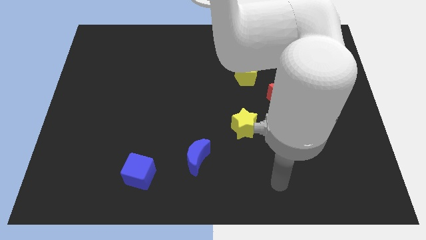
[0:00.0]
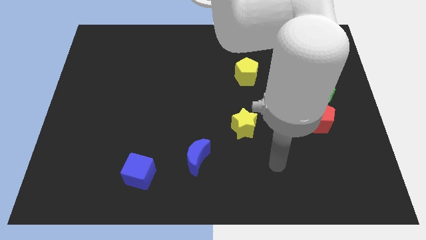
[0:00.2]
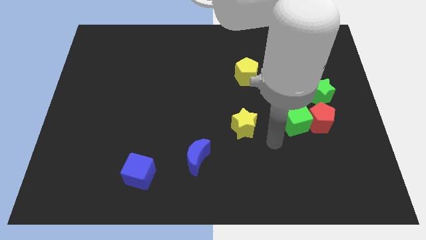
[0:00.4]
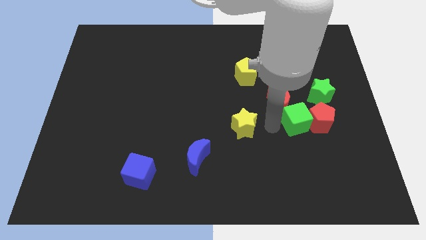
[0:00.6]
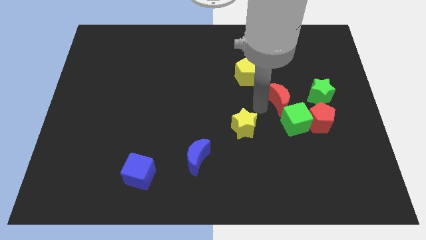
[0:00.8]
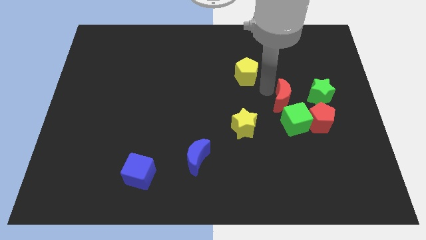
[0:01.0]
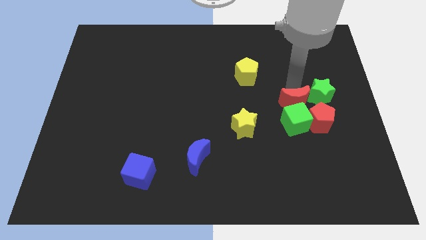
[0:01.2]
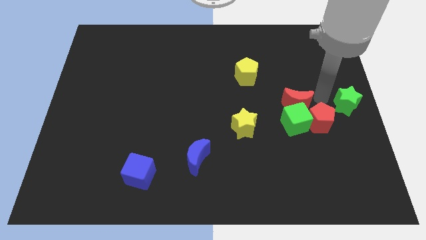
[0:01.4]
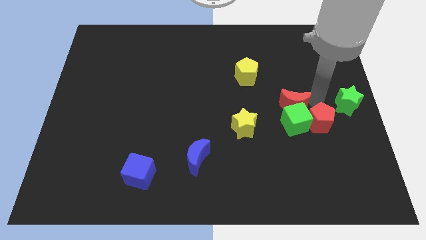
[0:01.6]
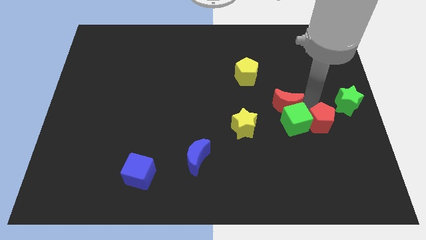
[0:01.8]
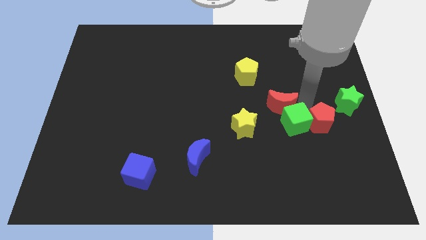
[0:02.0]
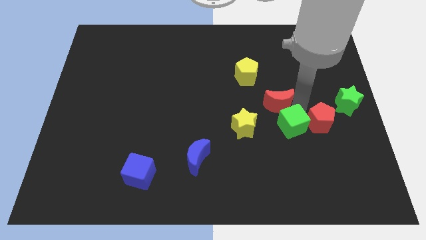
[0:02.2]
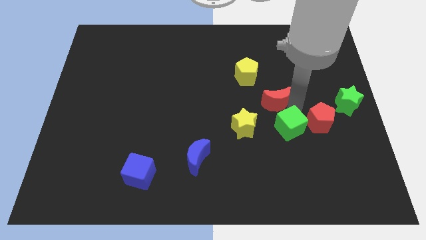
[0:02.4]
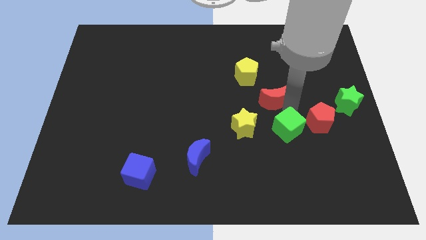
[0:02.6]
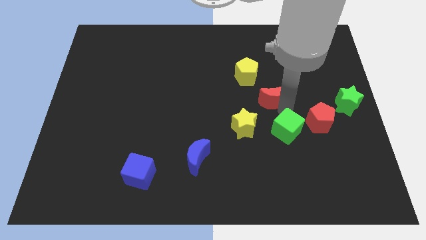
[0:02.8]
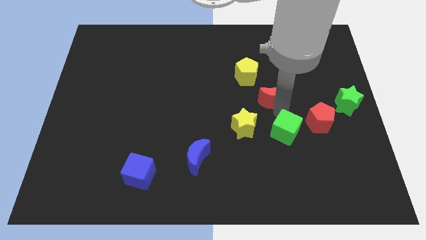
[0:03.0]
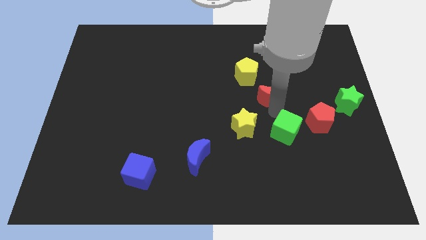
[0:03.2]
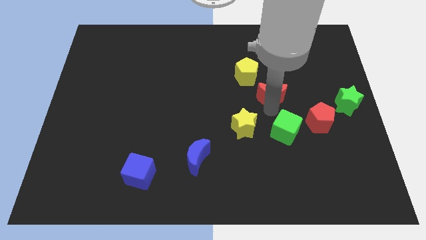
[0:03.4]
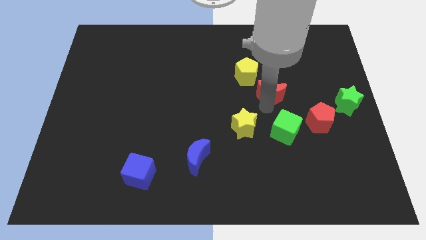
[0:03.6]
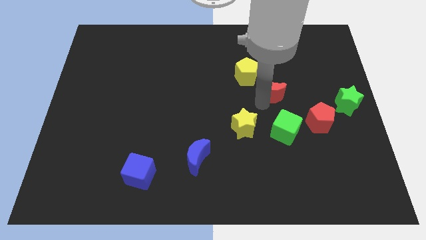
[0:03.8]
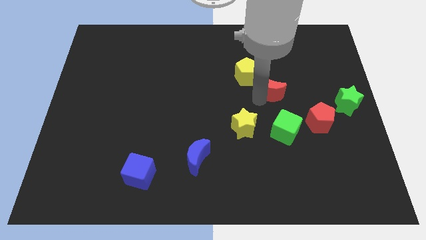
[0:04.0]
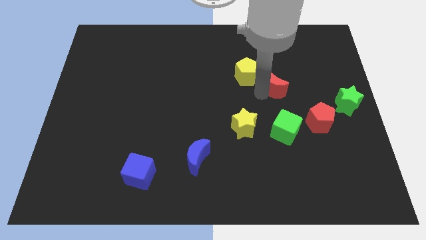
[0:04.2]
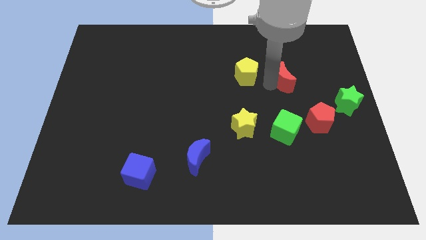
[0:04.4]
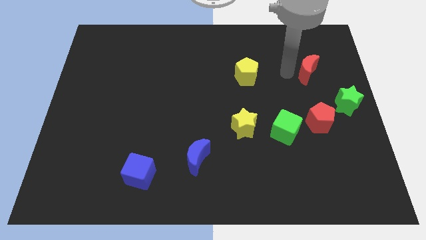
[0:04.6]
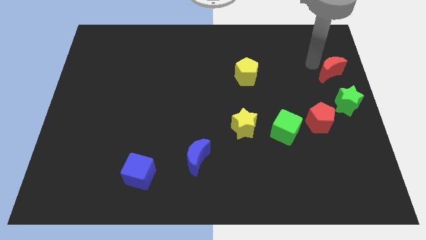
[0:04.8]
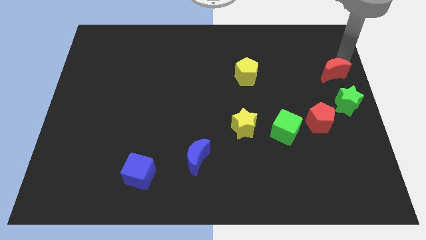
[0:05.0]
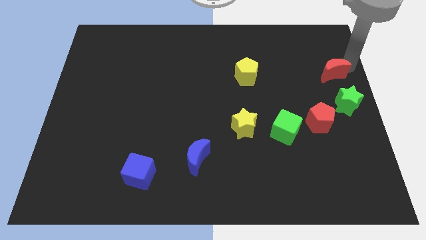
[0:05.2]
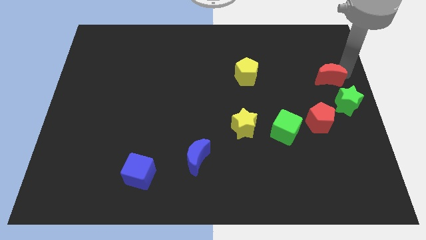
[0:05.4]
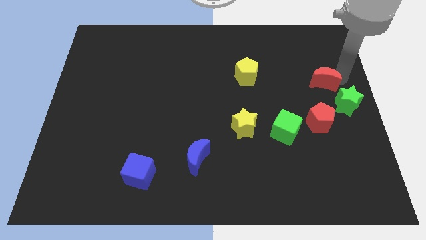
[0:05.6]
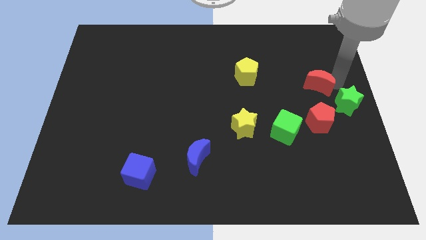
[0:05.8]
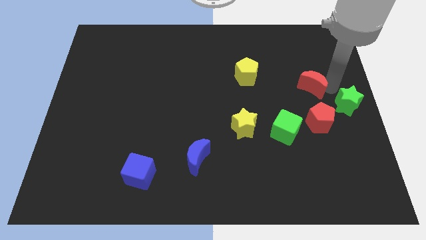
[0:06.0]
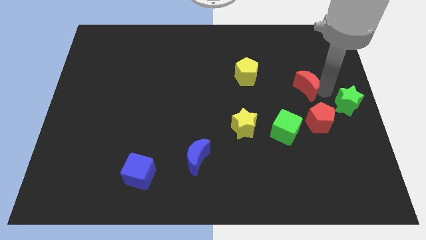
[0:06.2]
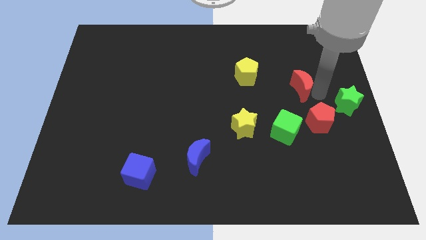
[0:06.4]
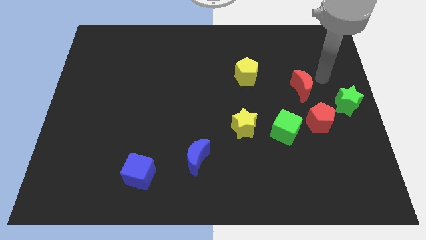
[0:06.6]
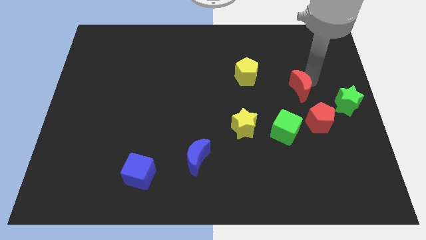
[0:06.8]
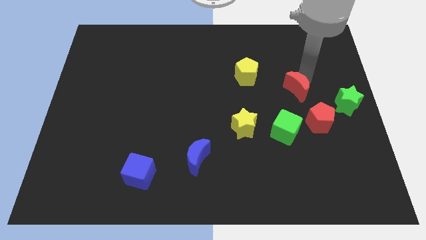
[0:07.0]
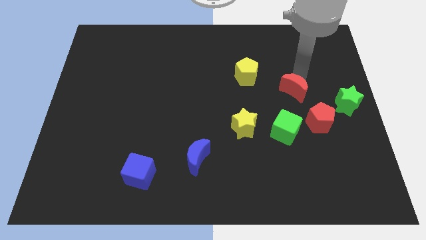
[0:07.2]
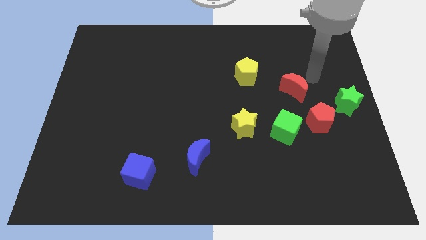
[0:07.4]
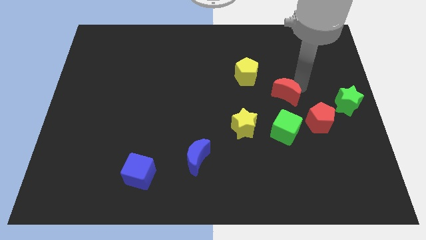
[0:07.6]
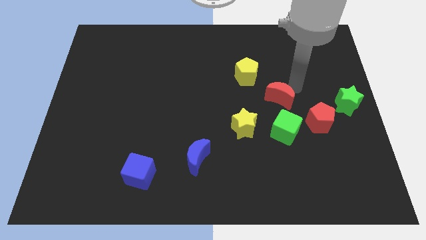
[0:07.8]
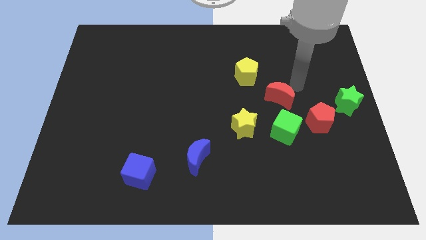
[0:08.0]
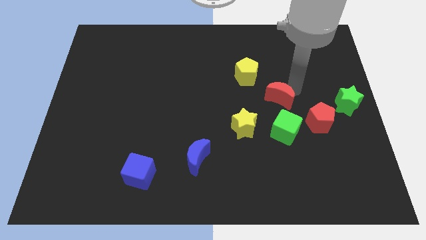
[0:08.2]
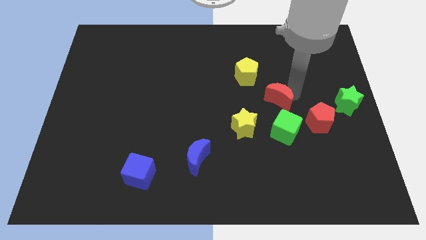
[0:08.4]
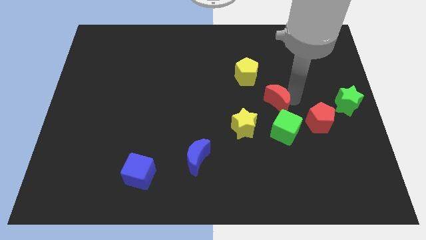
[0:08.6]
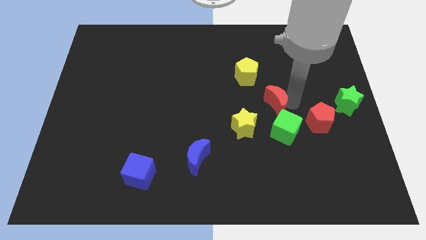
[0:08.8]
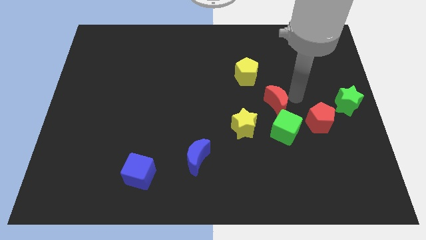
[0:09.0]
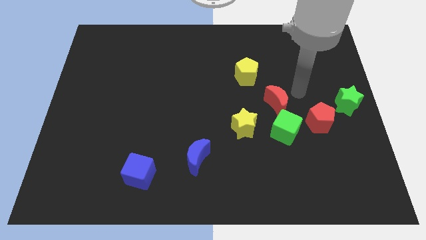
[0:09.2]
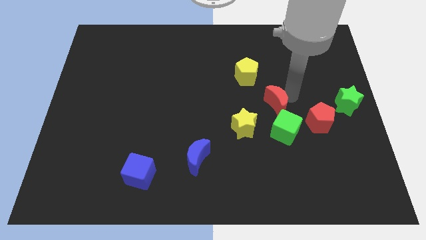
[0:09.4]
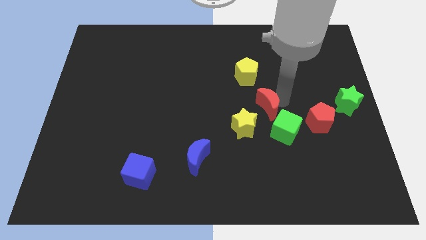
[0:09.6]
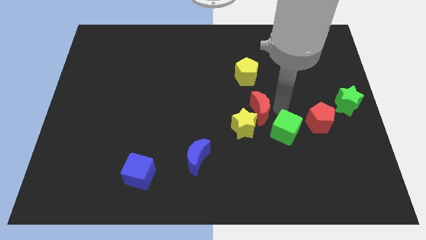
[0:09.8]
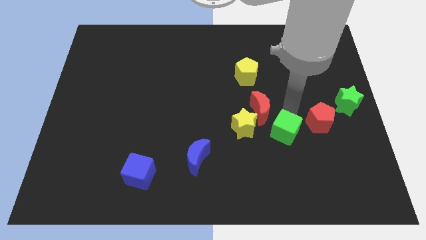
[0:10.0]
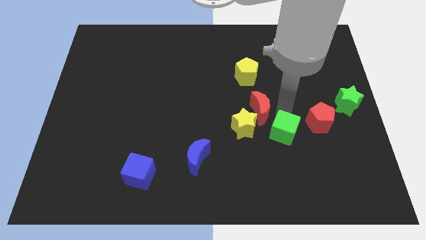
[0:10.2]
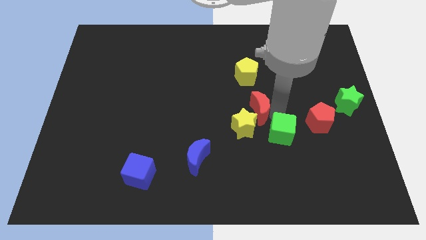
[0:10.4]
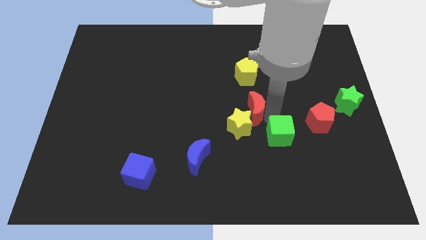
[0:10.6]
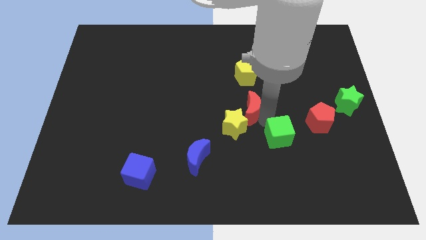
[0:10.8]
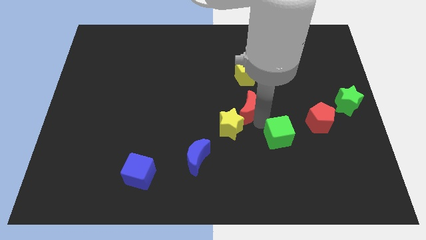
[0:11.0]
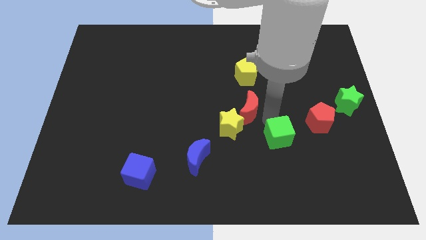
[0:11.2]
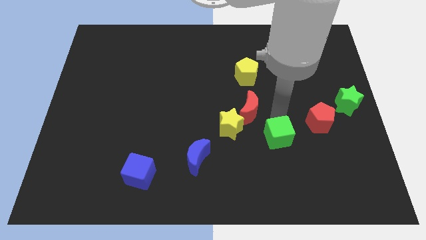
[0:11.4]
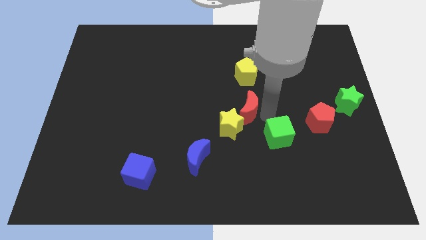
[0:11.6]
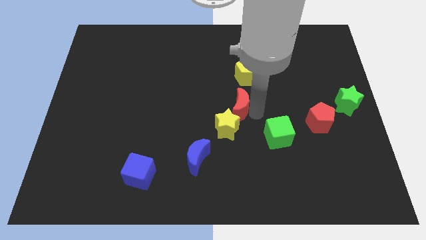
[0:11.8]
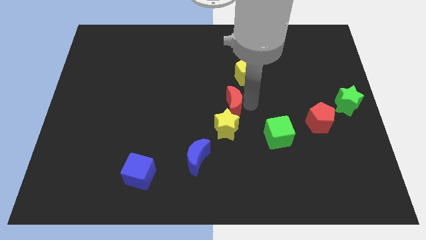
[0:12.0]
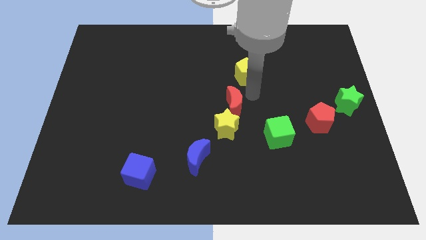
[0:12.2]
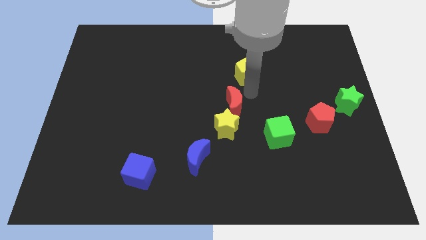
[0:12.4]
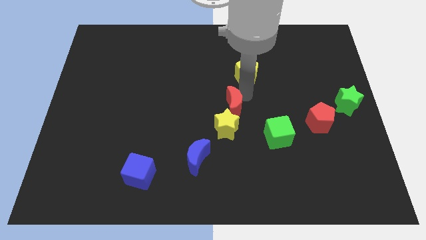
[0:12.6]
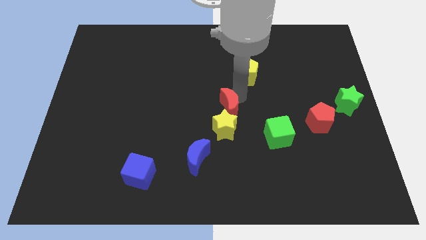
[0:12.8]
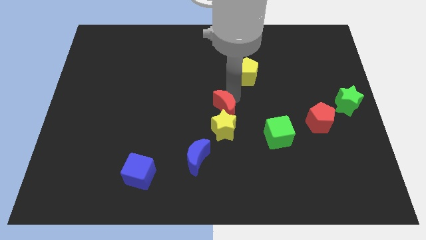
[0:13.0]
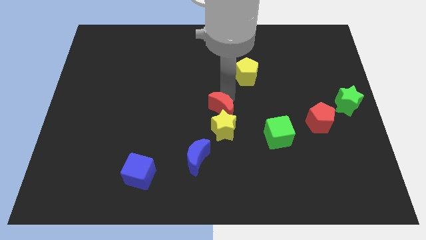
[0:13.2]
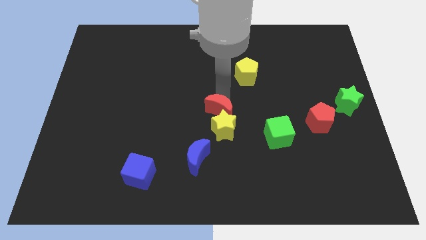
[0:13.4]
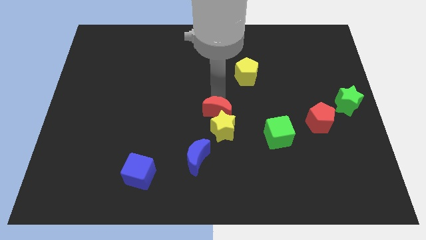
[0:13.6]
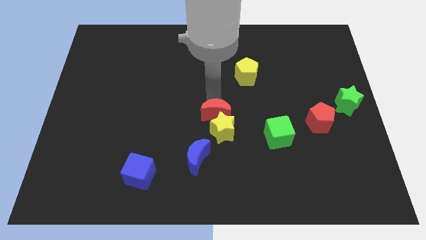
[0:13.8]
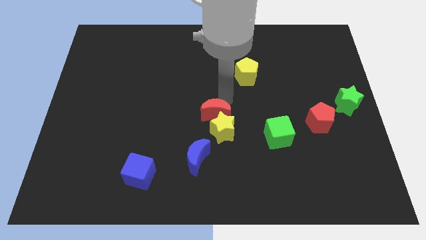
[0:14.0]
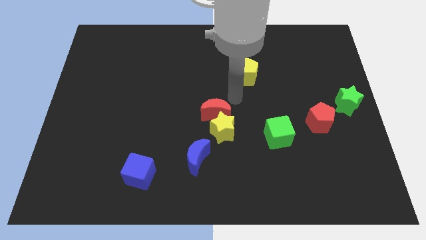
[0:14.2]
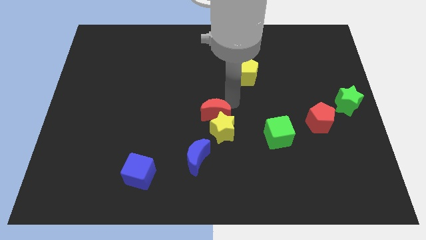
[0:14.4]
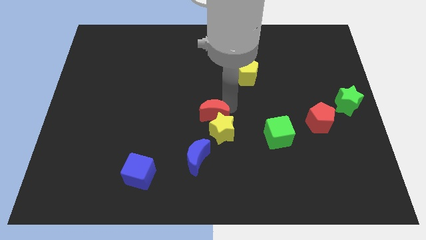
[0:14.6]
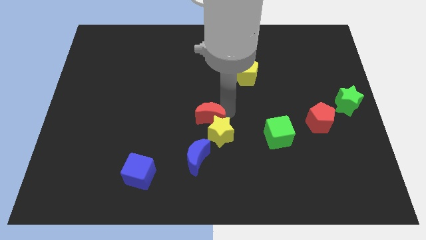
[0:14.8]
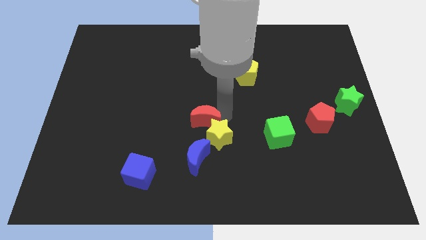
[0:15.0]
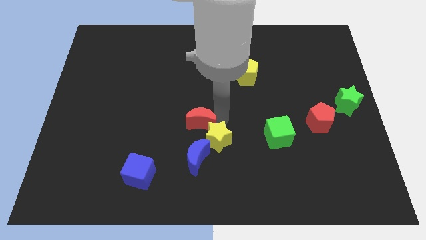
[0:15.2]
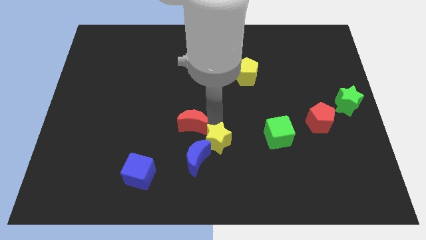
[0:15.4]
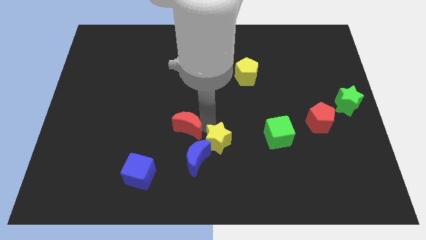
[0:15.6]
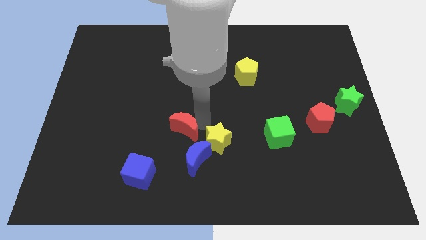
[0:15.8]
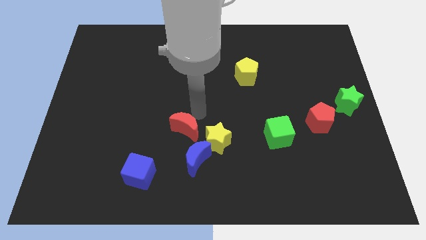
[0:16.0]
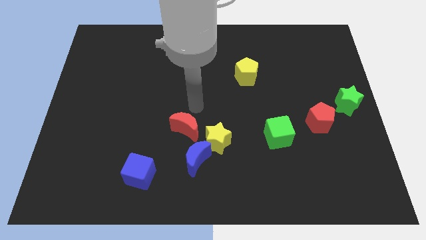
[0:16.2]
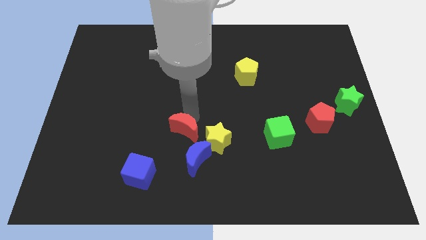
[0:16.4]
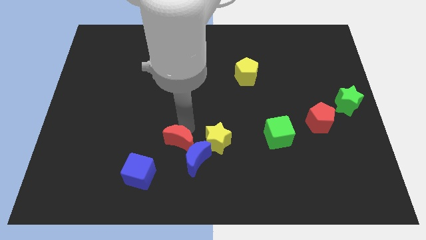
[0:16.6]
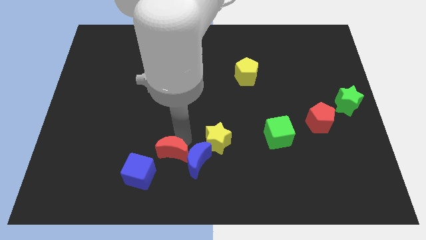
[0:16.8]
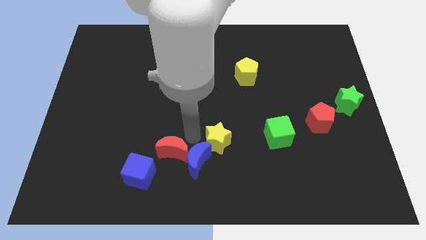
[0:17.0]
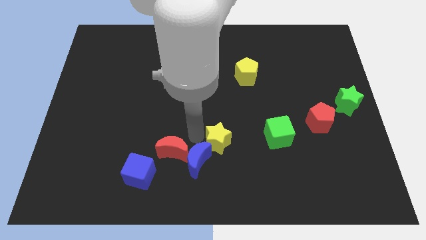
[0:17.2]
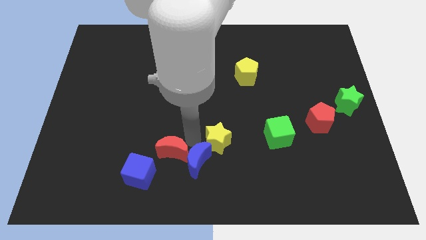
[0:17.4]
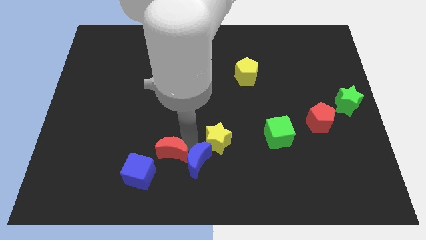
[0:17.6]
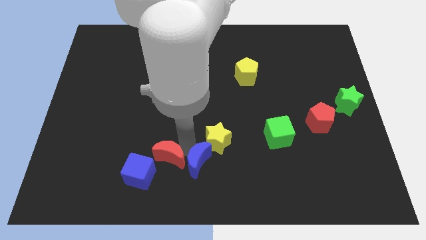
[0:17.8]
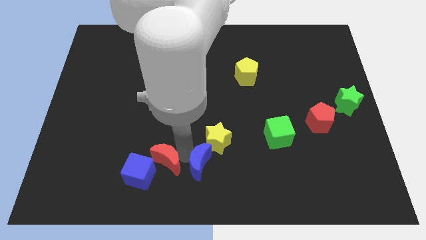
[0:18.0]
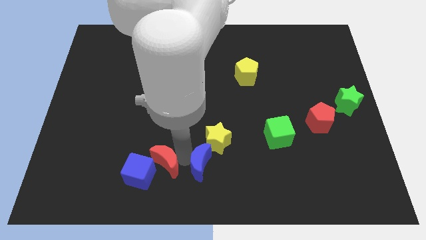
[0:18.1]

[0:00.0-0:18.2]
put the red moon close to the blue cube
